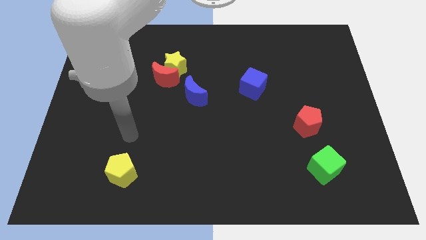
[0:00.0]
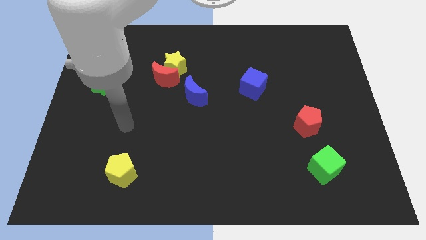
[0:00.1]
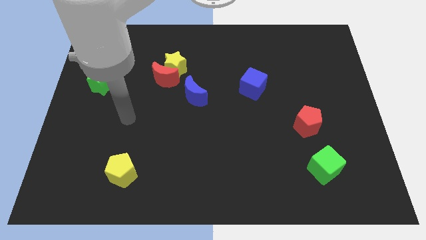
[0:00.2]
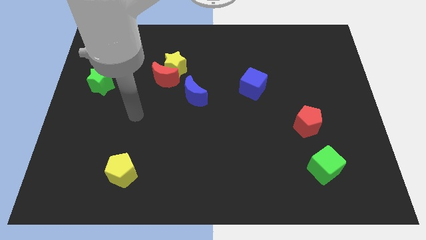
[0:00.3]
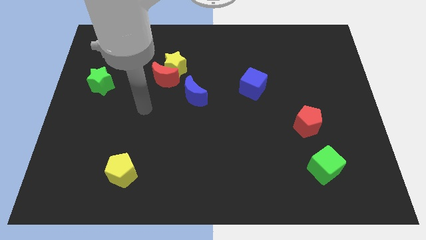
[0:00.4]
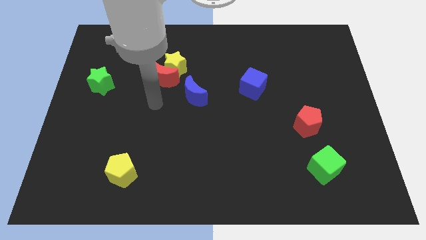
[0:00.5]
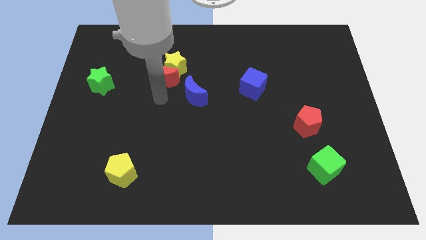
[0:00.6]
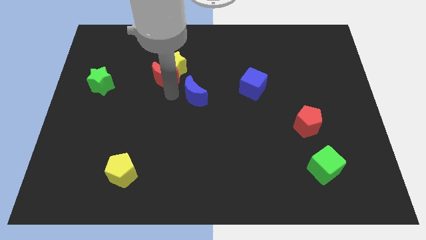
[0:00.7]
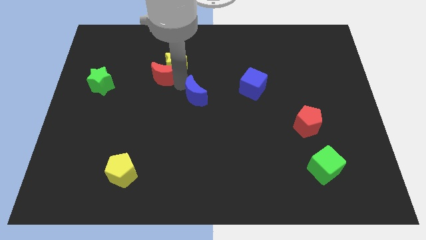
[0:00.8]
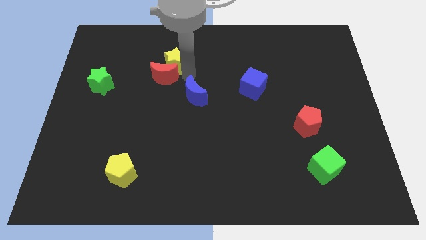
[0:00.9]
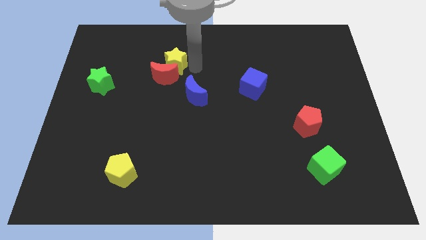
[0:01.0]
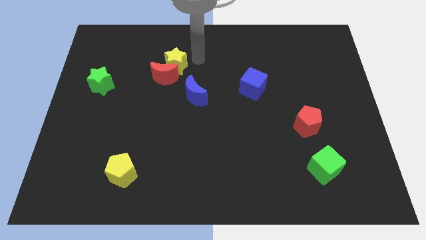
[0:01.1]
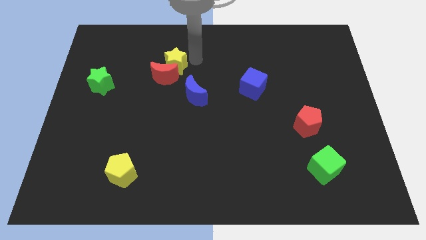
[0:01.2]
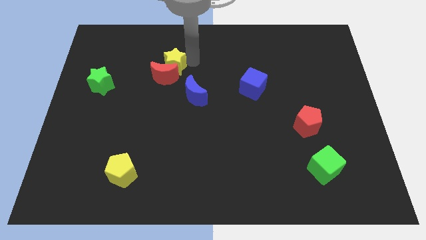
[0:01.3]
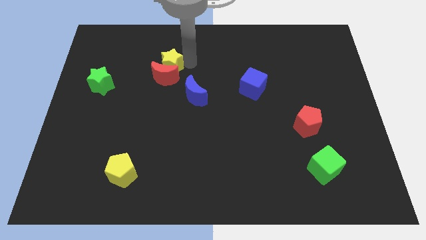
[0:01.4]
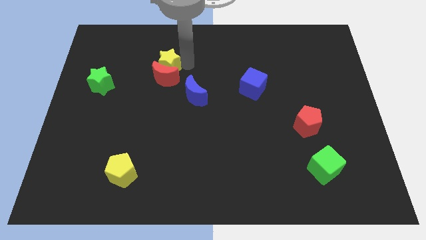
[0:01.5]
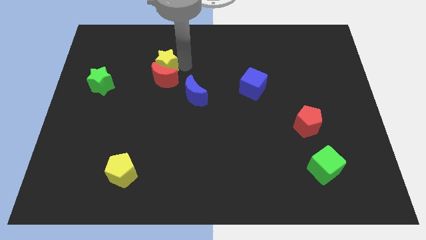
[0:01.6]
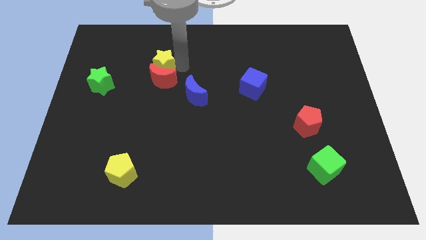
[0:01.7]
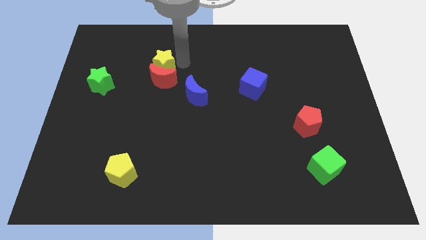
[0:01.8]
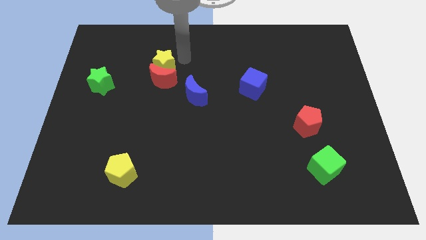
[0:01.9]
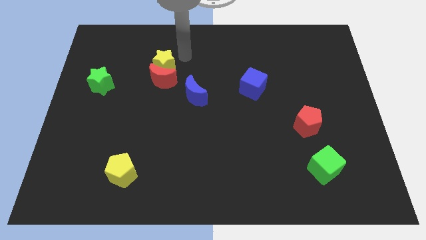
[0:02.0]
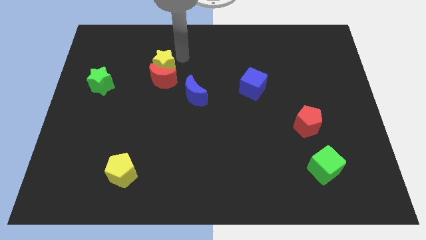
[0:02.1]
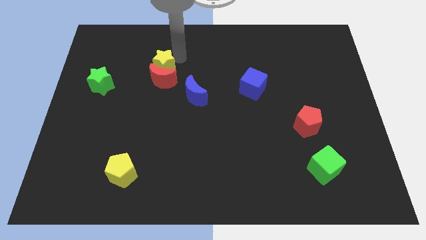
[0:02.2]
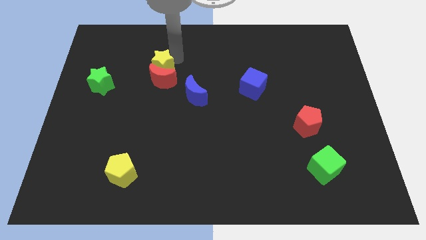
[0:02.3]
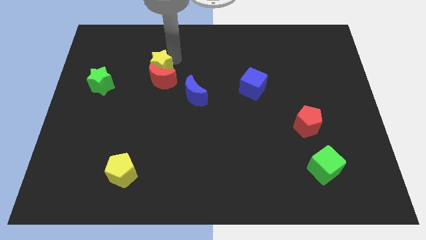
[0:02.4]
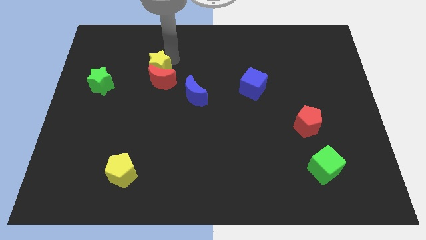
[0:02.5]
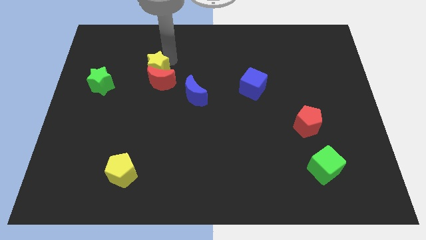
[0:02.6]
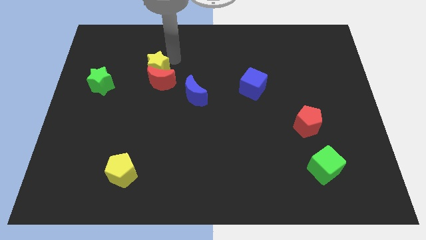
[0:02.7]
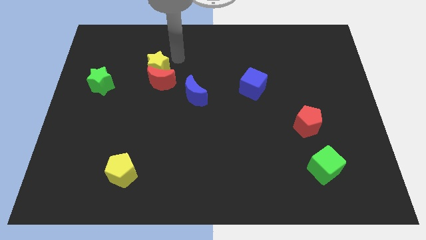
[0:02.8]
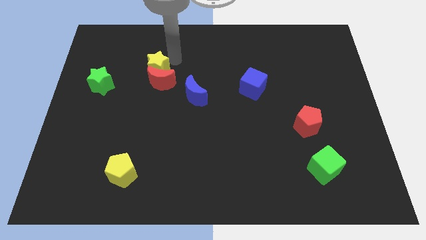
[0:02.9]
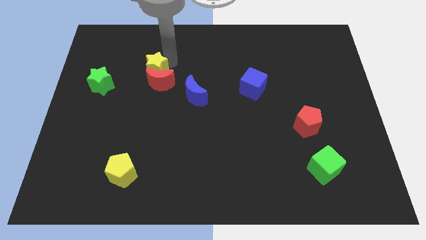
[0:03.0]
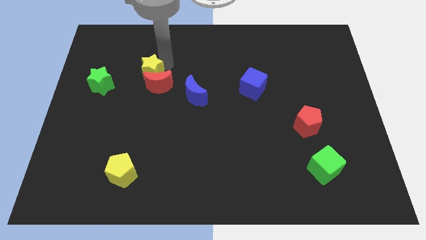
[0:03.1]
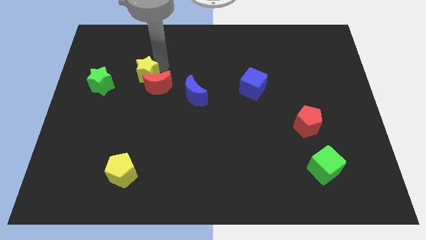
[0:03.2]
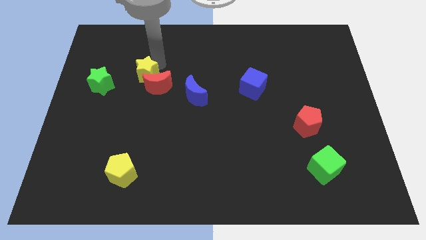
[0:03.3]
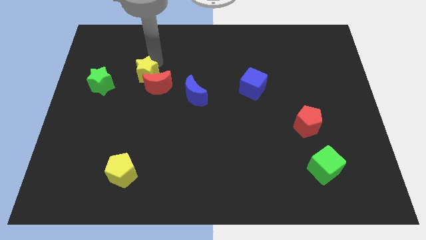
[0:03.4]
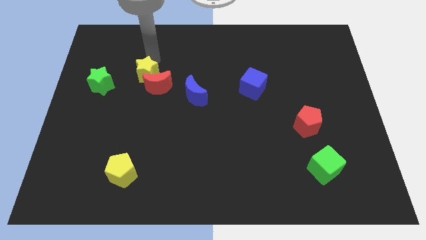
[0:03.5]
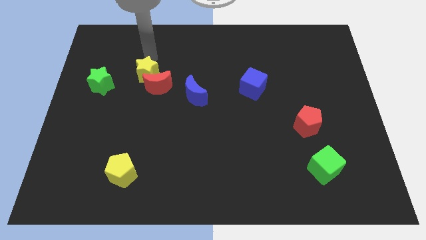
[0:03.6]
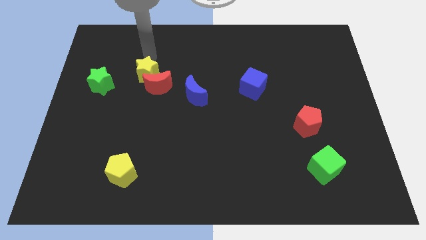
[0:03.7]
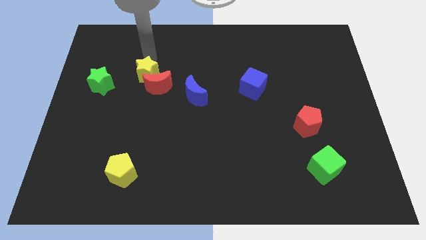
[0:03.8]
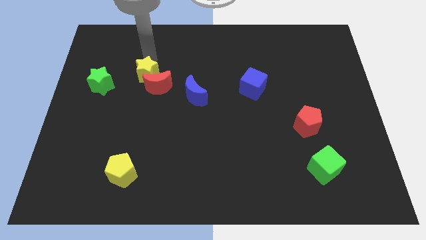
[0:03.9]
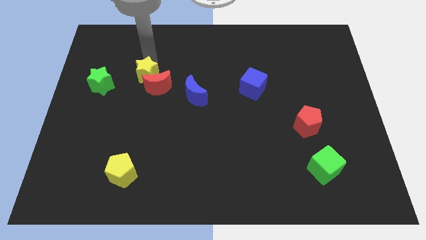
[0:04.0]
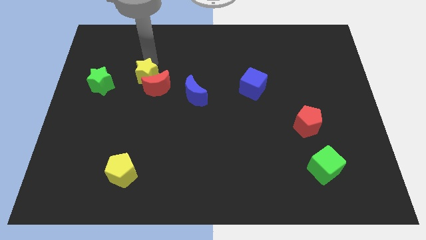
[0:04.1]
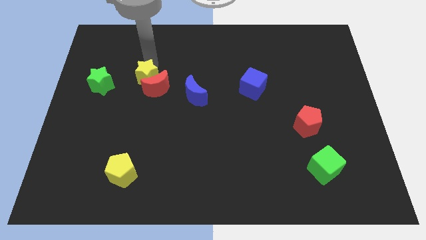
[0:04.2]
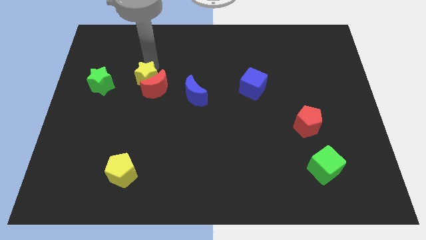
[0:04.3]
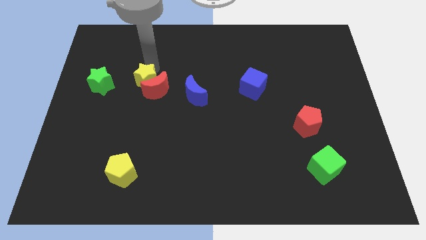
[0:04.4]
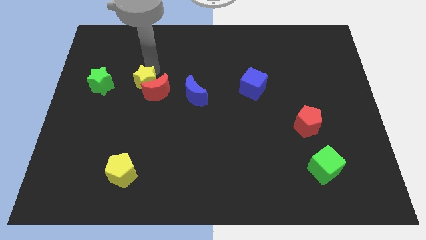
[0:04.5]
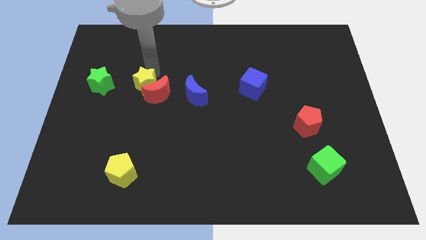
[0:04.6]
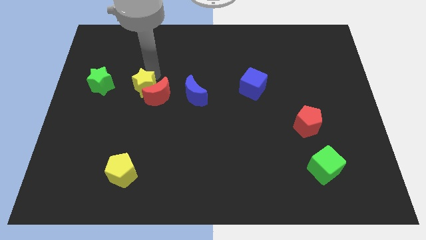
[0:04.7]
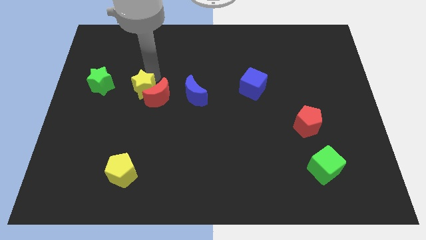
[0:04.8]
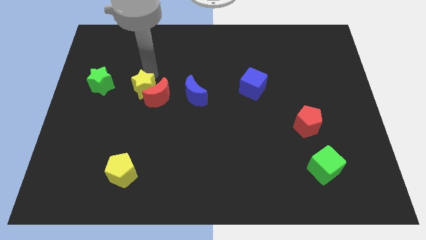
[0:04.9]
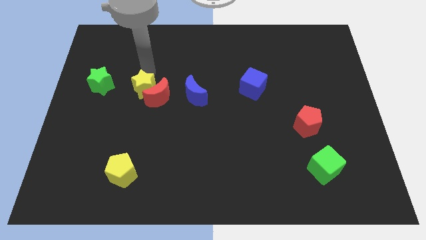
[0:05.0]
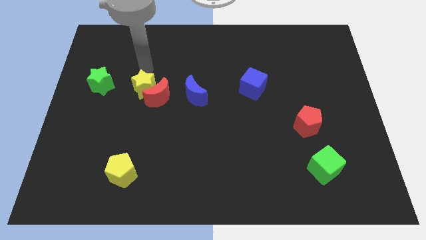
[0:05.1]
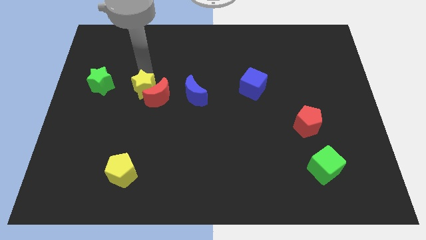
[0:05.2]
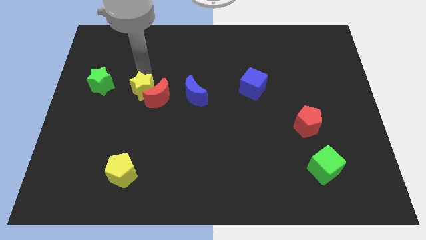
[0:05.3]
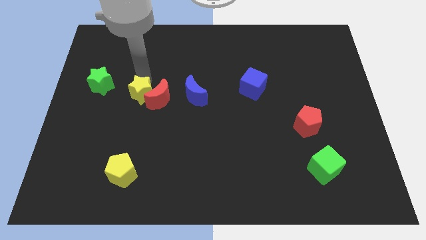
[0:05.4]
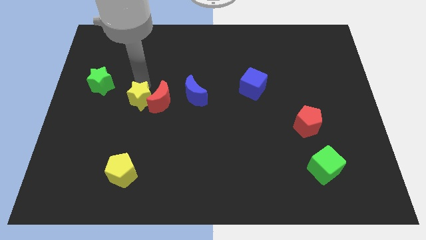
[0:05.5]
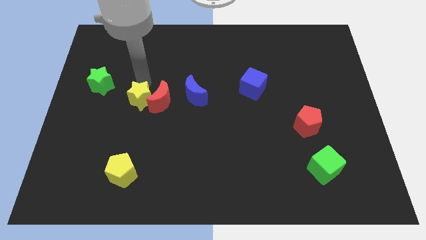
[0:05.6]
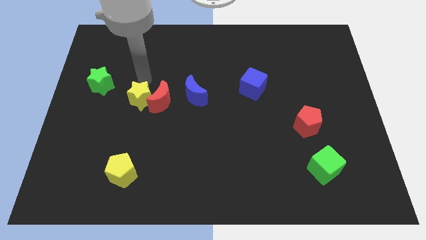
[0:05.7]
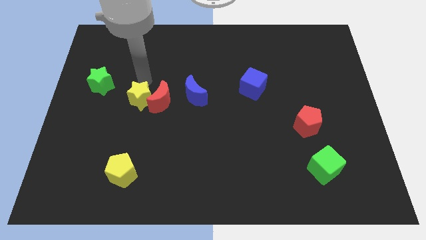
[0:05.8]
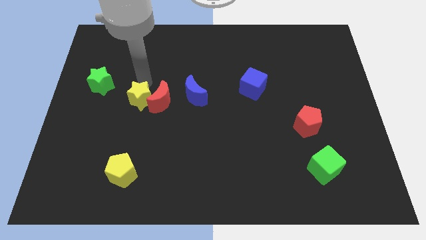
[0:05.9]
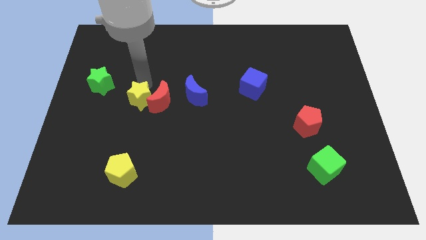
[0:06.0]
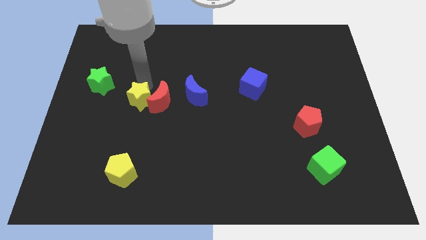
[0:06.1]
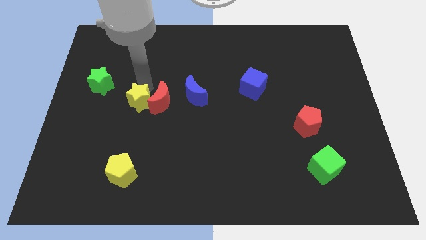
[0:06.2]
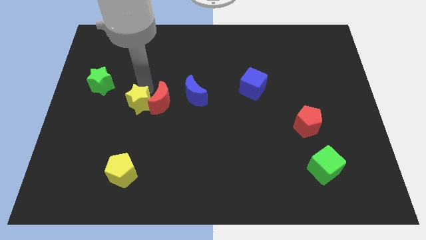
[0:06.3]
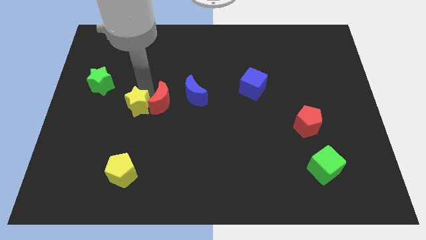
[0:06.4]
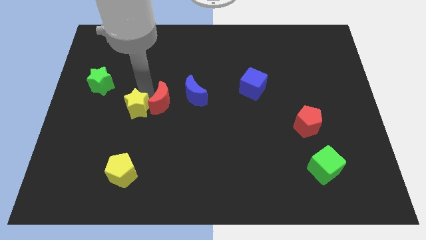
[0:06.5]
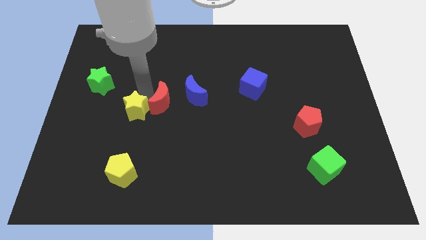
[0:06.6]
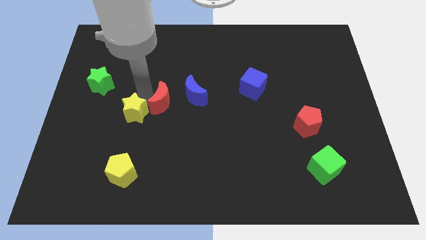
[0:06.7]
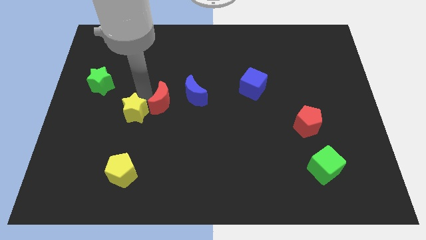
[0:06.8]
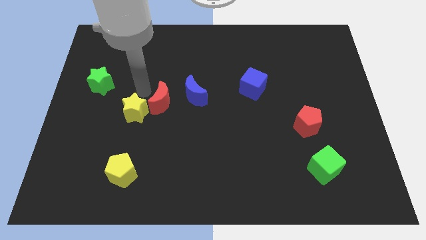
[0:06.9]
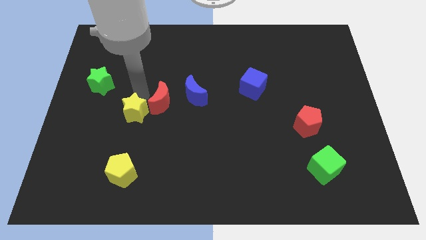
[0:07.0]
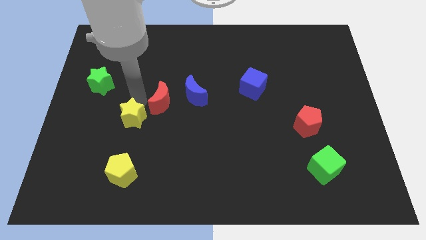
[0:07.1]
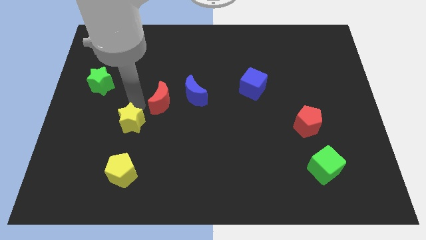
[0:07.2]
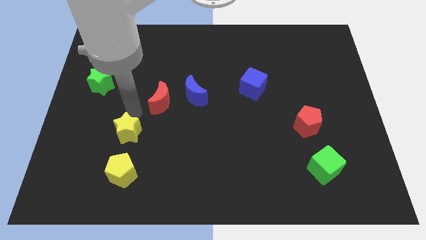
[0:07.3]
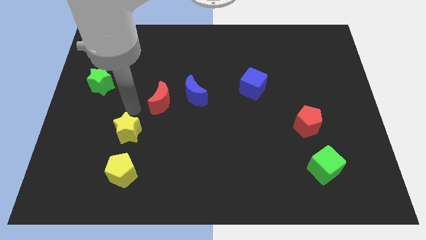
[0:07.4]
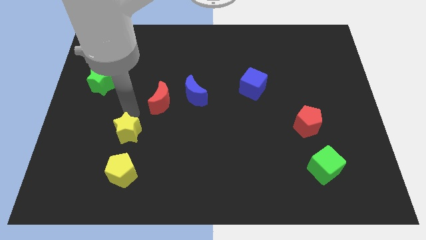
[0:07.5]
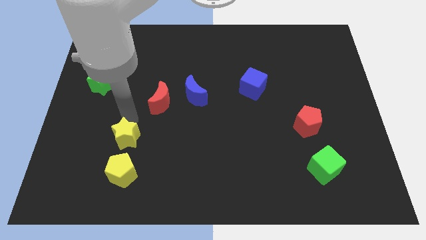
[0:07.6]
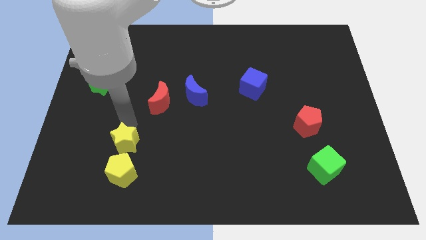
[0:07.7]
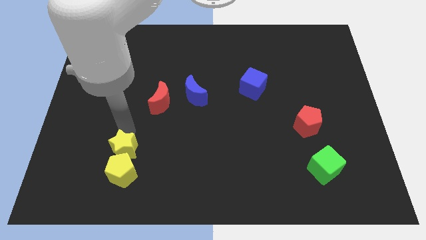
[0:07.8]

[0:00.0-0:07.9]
move the yellow star close to the yellow pentagon
